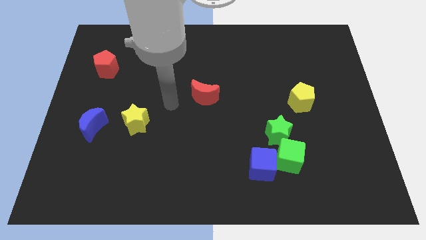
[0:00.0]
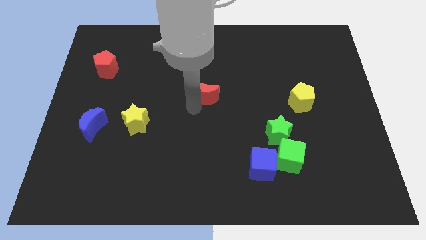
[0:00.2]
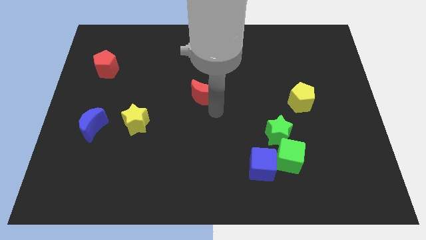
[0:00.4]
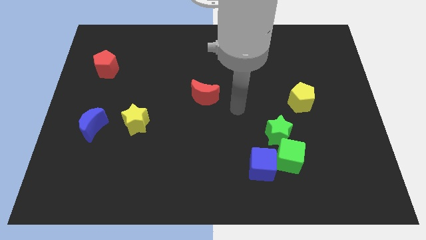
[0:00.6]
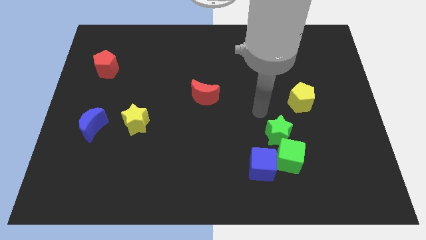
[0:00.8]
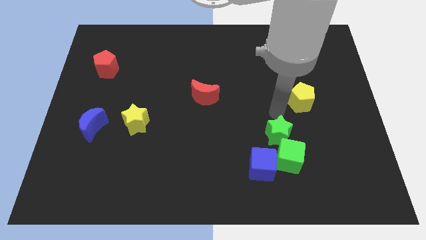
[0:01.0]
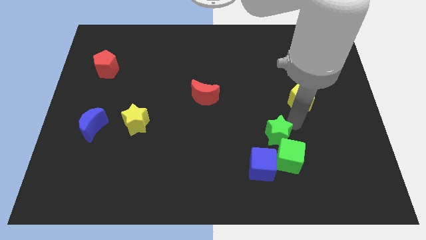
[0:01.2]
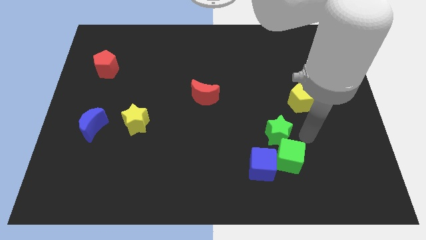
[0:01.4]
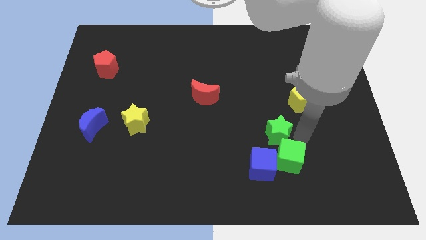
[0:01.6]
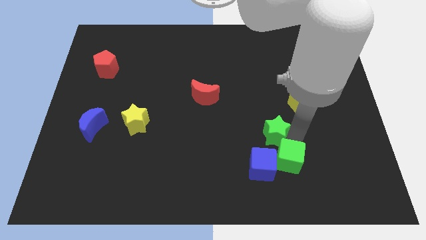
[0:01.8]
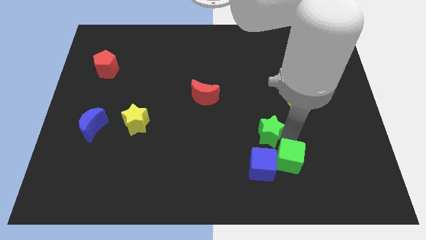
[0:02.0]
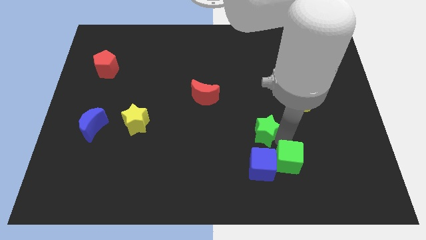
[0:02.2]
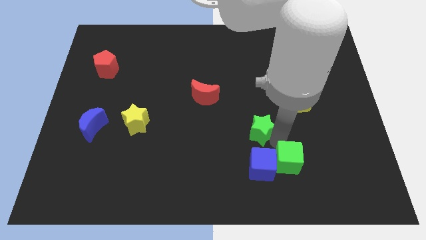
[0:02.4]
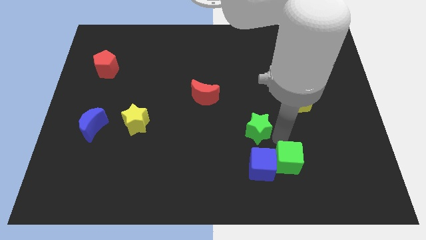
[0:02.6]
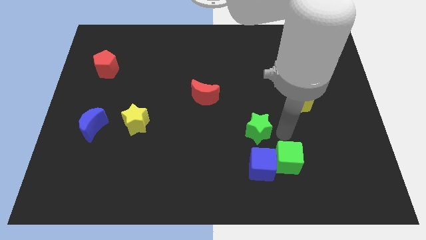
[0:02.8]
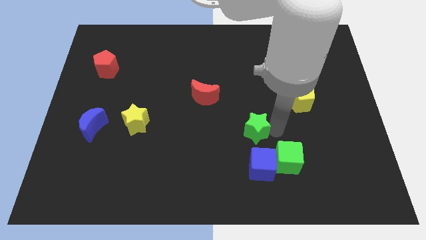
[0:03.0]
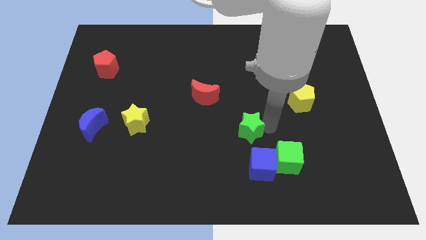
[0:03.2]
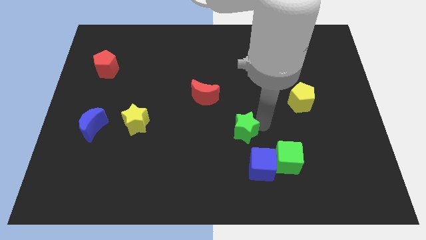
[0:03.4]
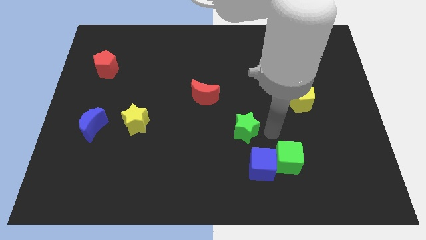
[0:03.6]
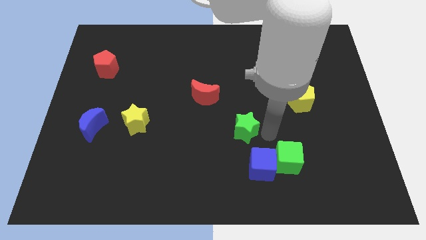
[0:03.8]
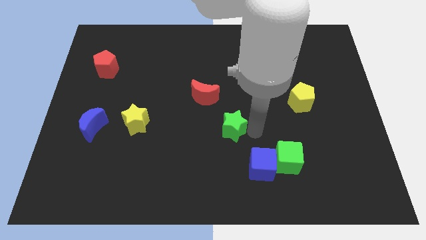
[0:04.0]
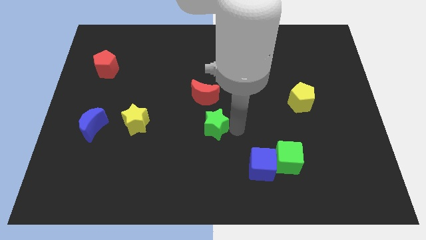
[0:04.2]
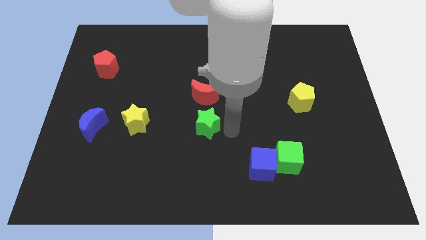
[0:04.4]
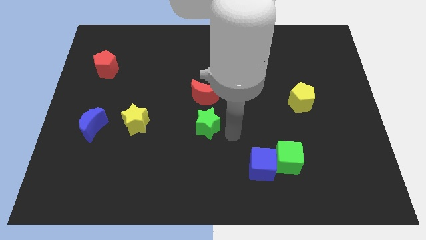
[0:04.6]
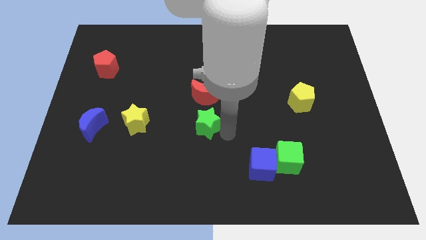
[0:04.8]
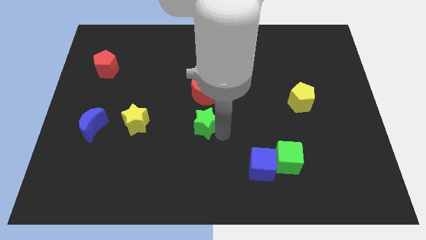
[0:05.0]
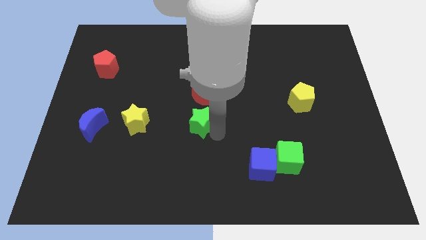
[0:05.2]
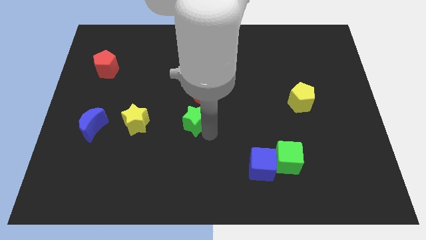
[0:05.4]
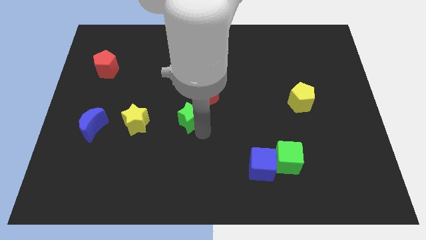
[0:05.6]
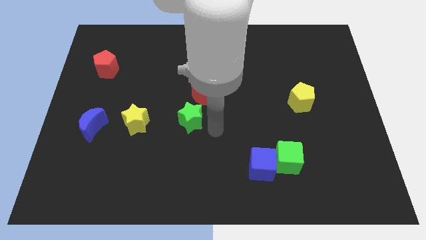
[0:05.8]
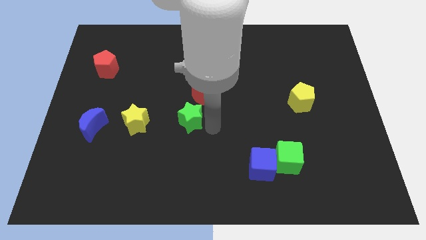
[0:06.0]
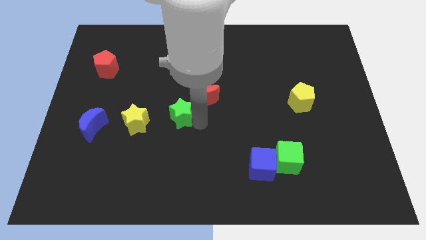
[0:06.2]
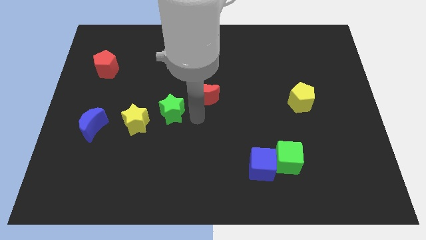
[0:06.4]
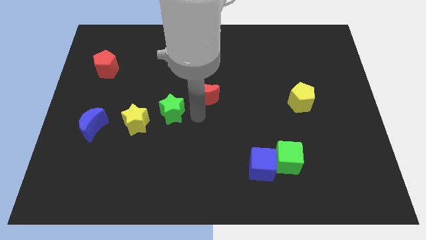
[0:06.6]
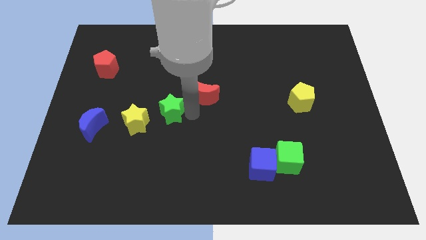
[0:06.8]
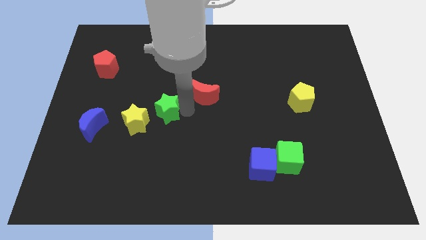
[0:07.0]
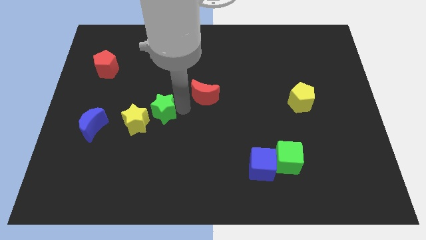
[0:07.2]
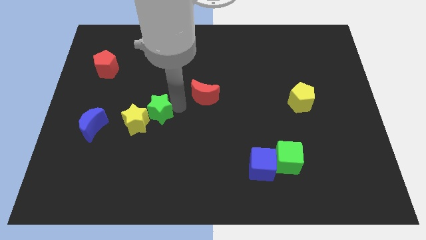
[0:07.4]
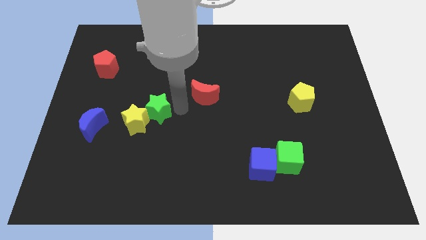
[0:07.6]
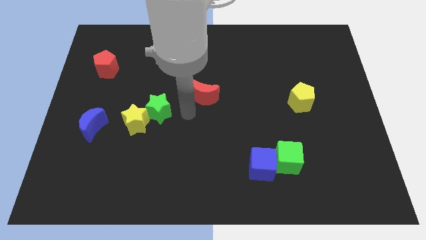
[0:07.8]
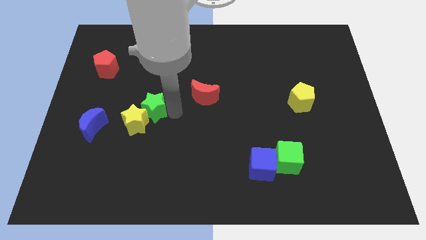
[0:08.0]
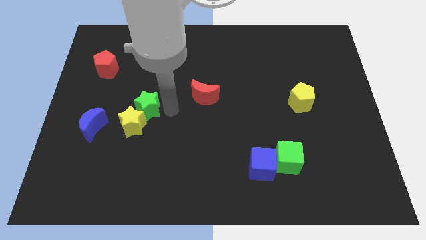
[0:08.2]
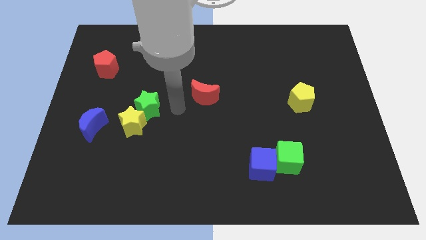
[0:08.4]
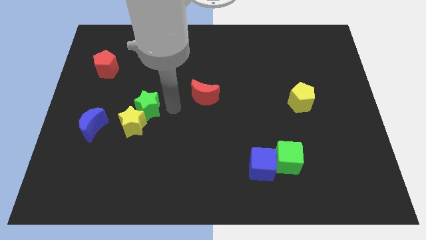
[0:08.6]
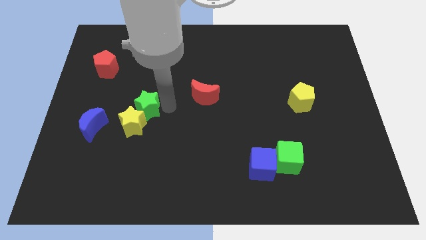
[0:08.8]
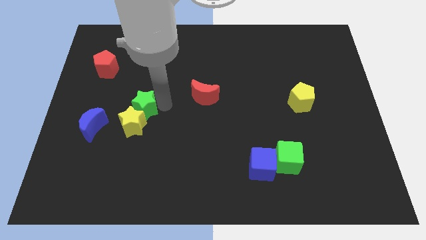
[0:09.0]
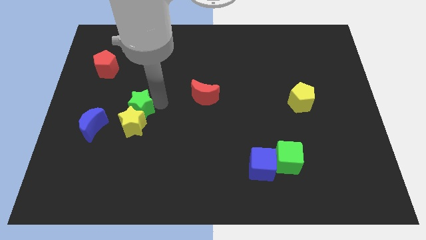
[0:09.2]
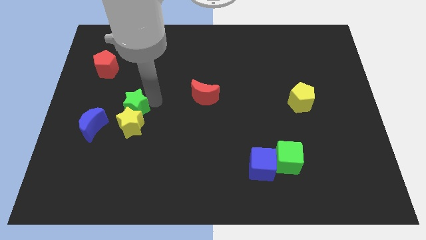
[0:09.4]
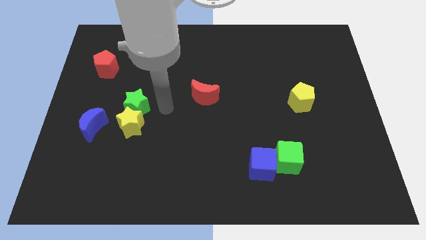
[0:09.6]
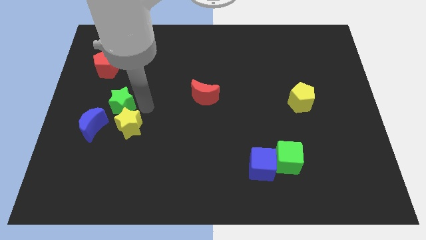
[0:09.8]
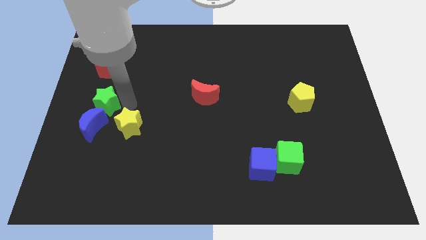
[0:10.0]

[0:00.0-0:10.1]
move the green star to the left side of the board

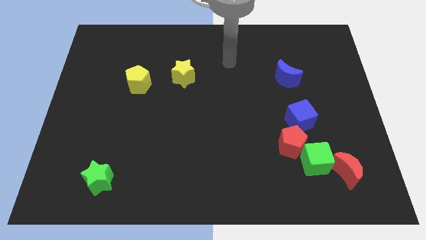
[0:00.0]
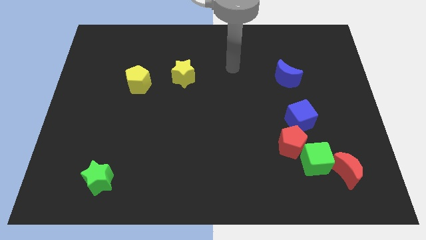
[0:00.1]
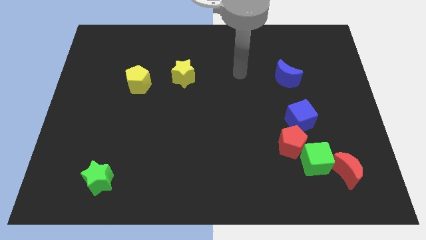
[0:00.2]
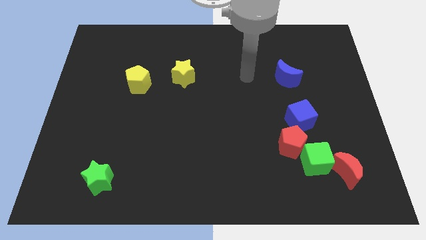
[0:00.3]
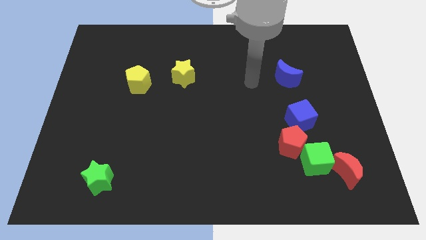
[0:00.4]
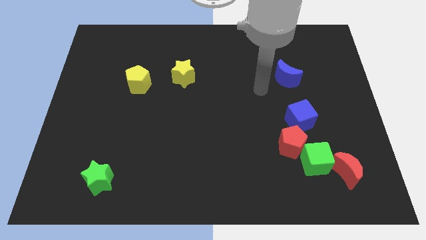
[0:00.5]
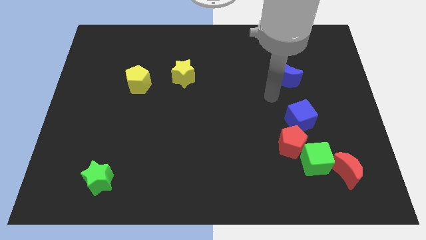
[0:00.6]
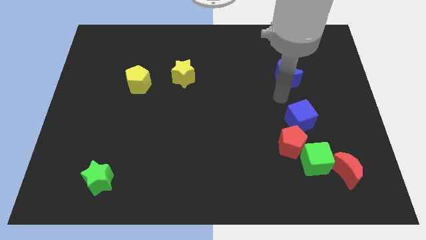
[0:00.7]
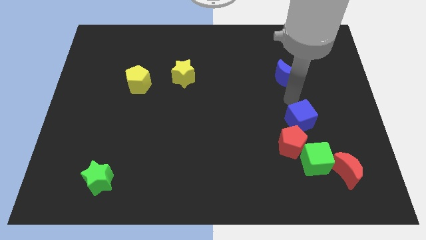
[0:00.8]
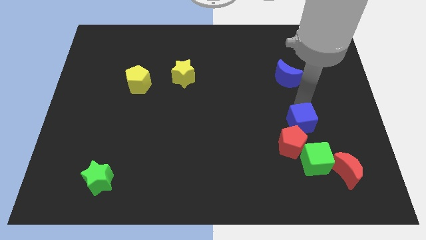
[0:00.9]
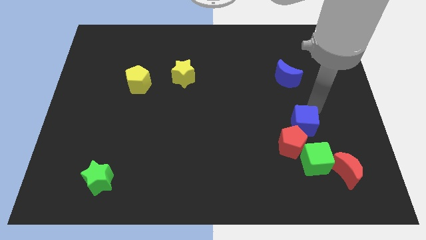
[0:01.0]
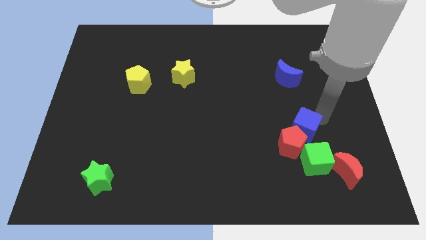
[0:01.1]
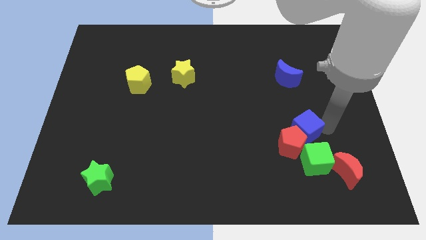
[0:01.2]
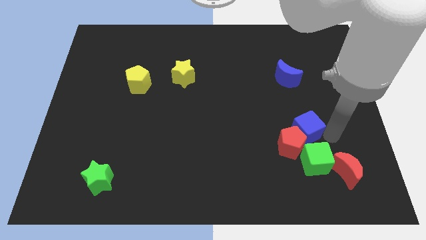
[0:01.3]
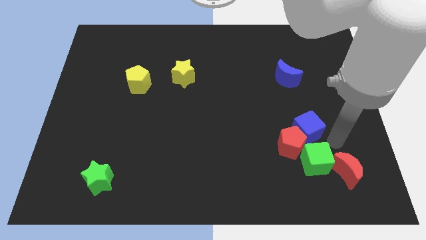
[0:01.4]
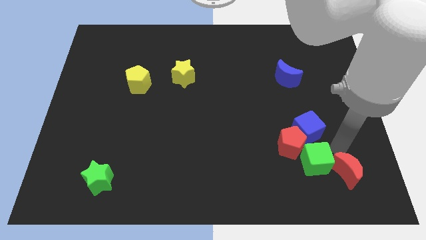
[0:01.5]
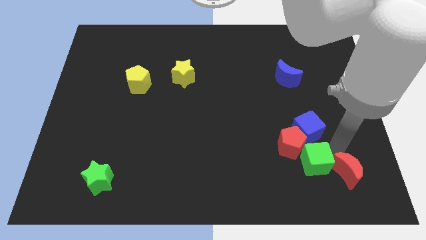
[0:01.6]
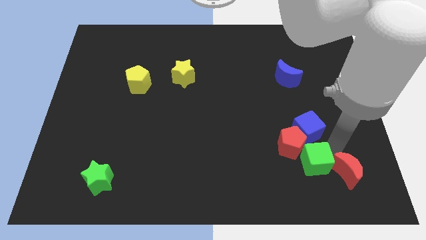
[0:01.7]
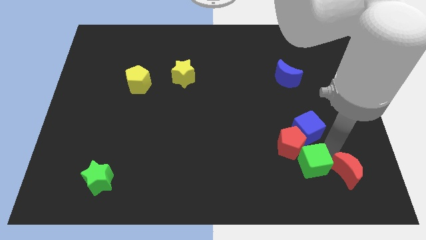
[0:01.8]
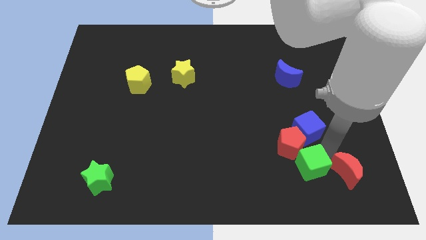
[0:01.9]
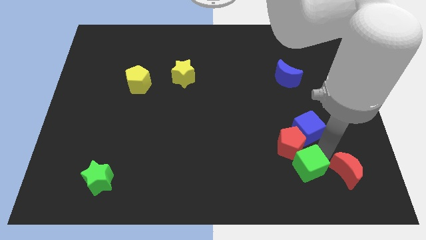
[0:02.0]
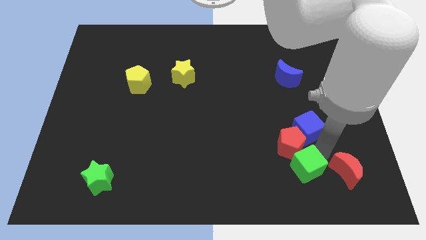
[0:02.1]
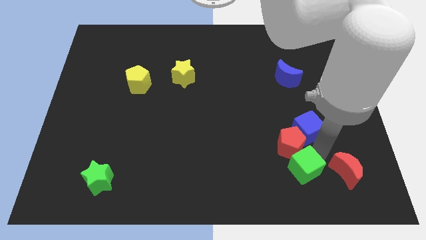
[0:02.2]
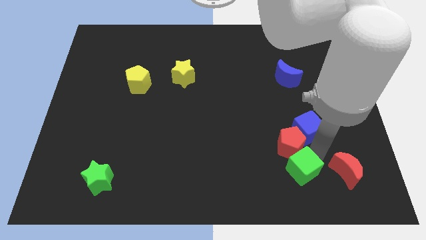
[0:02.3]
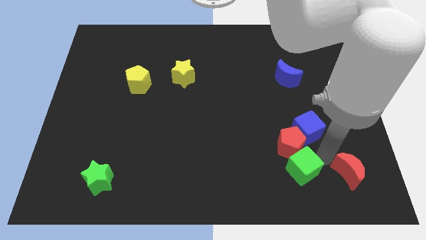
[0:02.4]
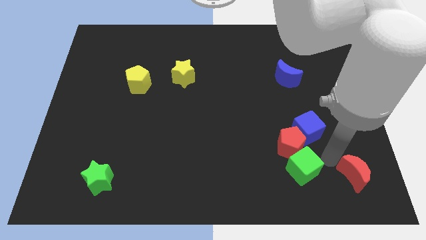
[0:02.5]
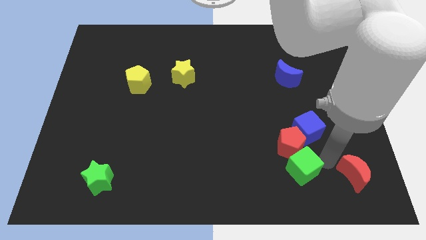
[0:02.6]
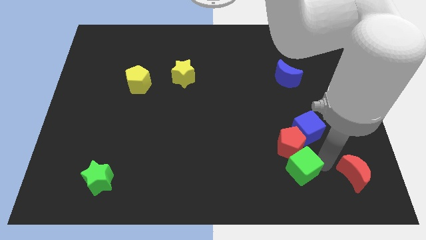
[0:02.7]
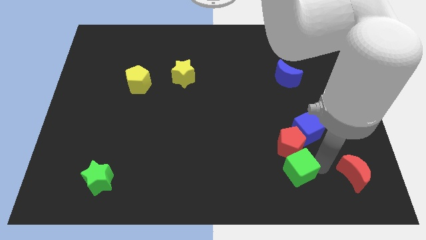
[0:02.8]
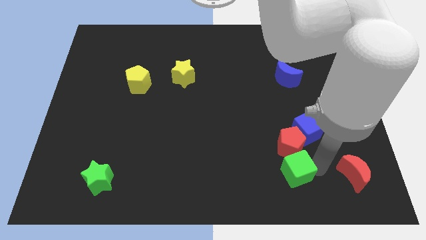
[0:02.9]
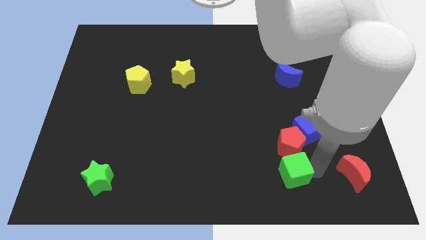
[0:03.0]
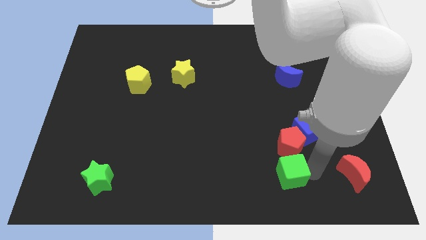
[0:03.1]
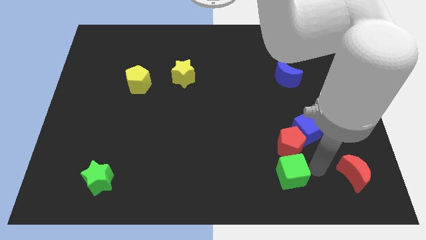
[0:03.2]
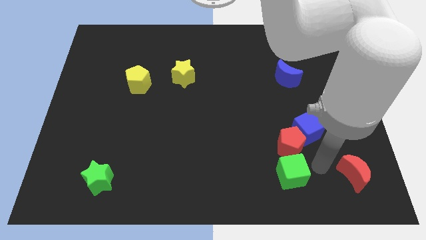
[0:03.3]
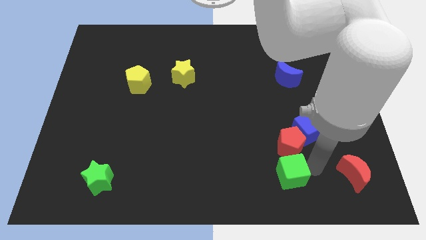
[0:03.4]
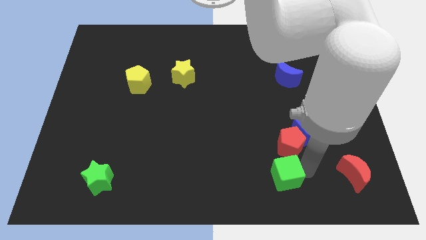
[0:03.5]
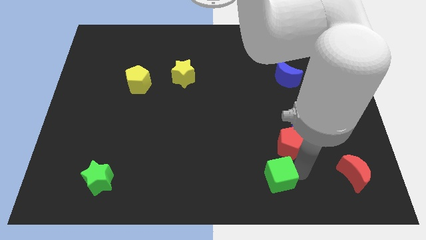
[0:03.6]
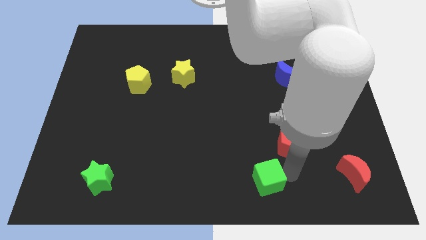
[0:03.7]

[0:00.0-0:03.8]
slide the green cube to the bottom side
